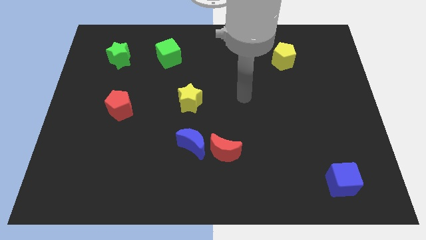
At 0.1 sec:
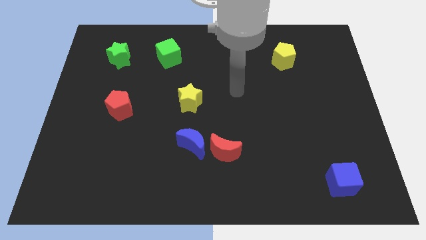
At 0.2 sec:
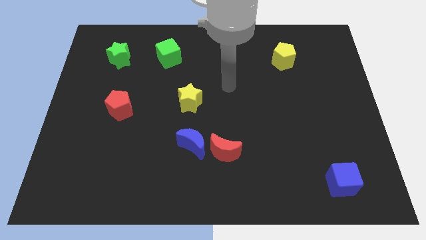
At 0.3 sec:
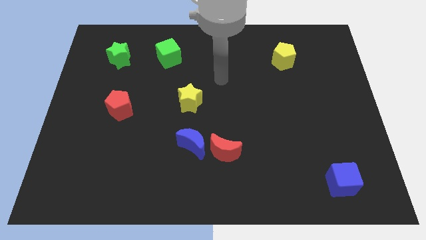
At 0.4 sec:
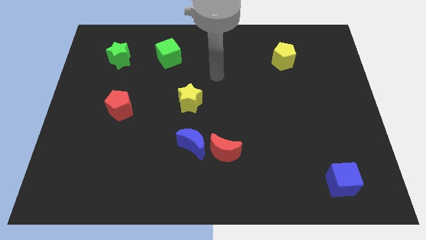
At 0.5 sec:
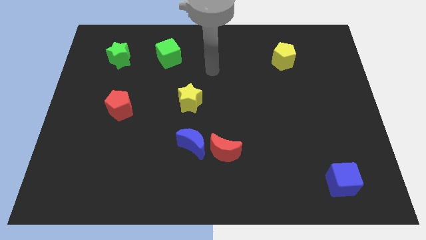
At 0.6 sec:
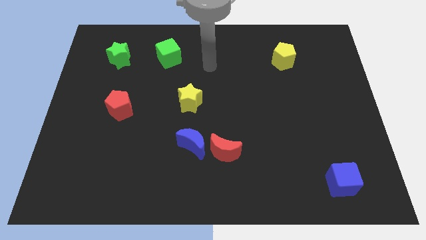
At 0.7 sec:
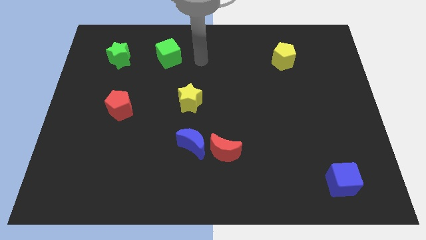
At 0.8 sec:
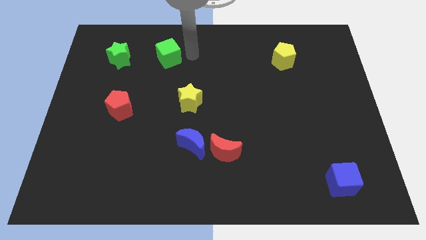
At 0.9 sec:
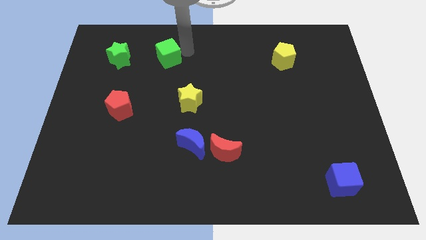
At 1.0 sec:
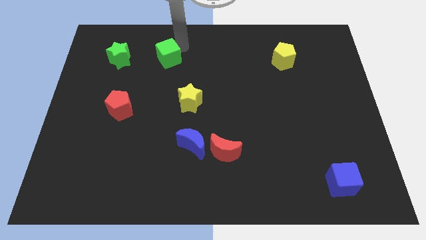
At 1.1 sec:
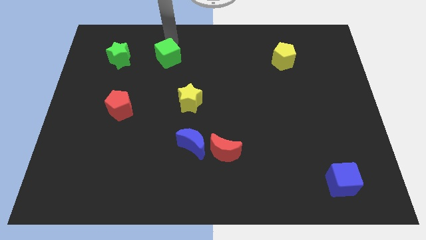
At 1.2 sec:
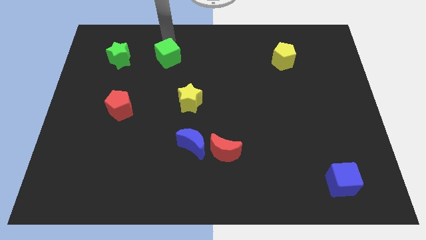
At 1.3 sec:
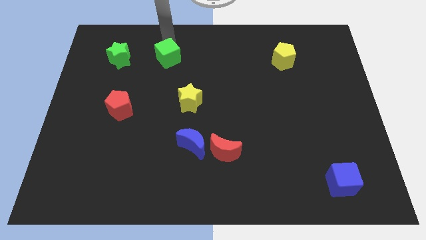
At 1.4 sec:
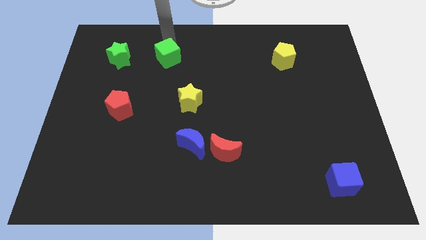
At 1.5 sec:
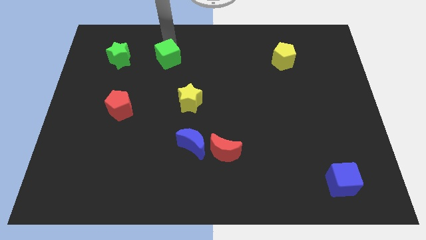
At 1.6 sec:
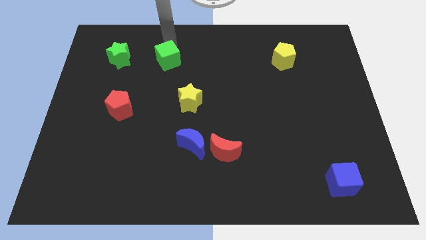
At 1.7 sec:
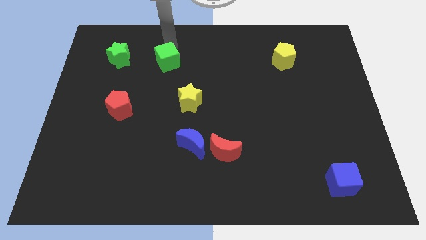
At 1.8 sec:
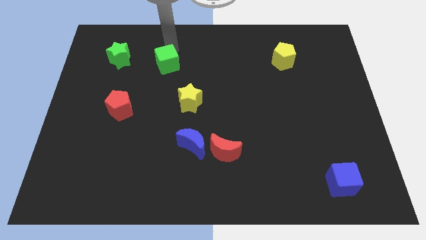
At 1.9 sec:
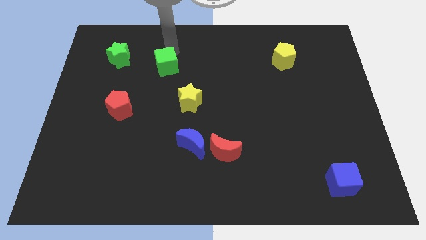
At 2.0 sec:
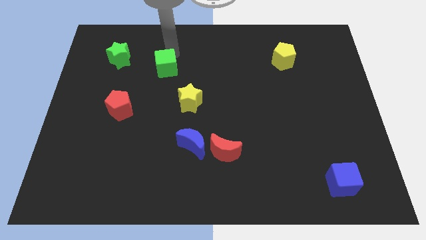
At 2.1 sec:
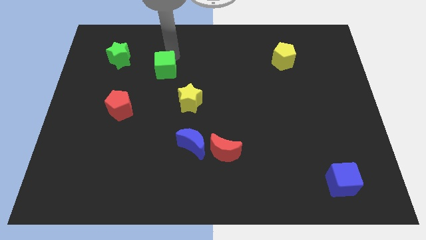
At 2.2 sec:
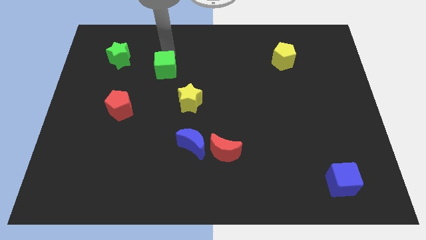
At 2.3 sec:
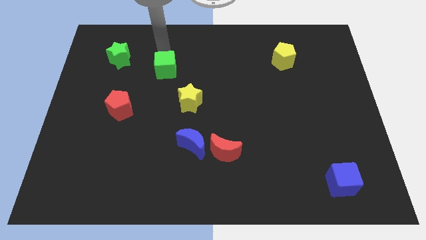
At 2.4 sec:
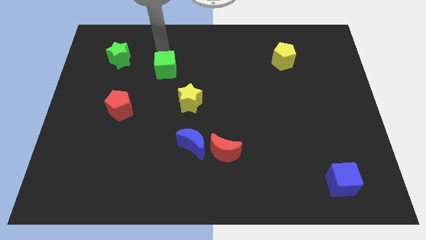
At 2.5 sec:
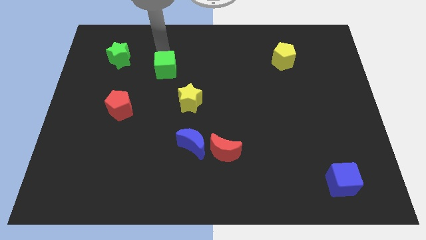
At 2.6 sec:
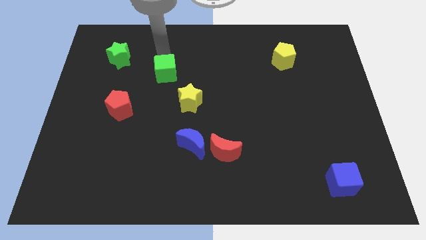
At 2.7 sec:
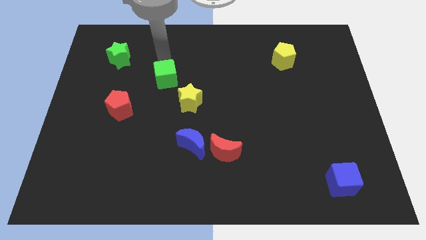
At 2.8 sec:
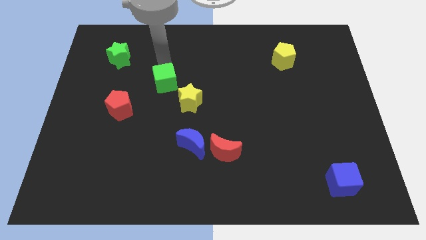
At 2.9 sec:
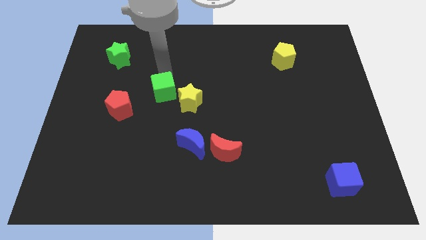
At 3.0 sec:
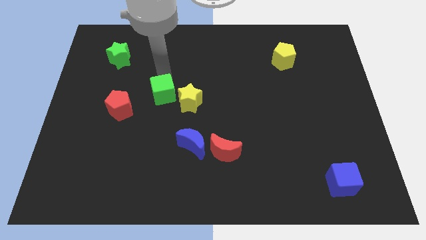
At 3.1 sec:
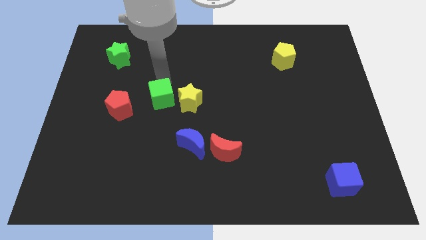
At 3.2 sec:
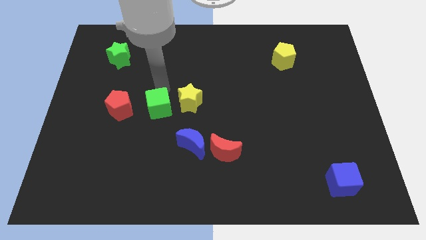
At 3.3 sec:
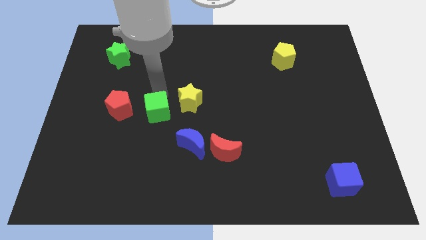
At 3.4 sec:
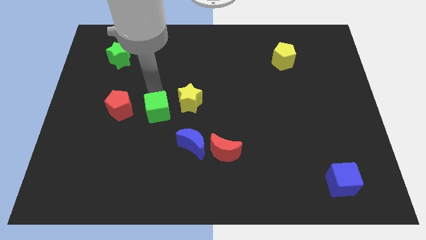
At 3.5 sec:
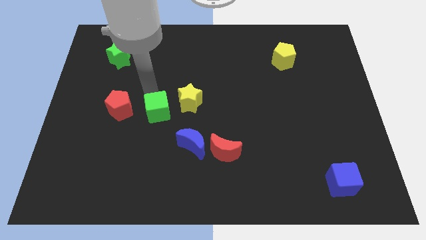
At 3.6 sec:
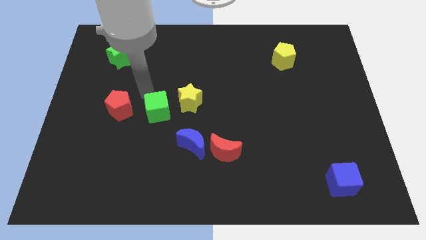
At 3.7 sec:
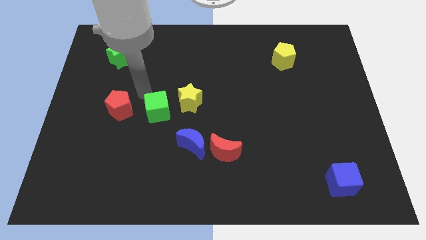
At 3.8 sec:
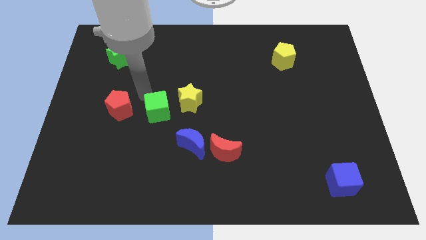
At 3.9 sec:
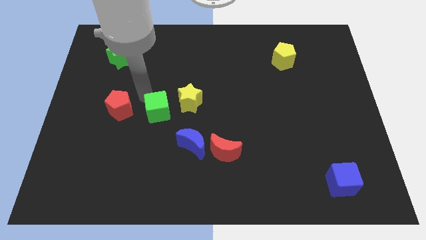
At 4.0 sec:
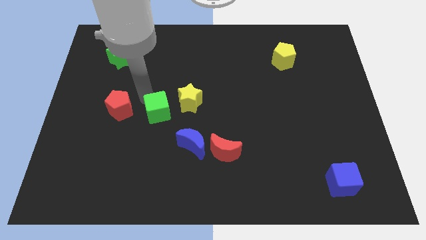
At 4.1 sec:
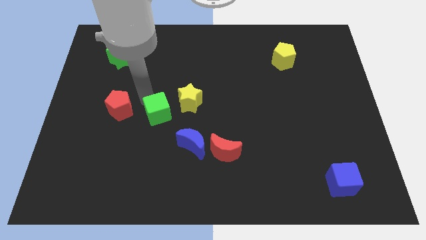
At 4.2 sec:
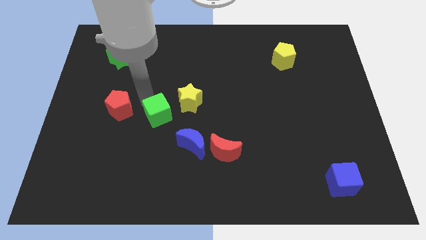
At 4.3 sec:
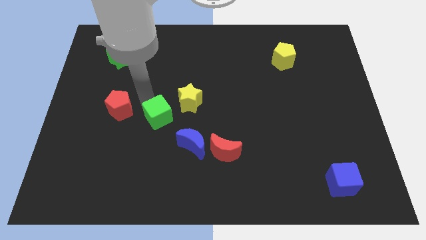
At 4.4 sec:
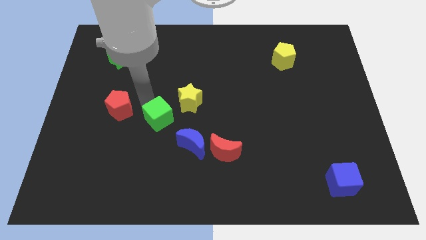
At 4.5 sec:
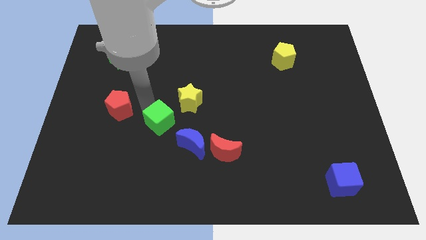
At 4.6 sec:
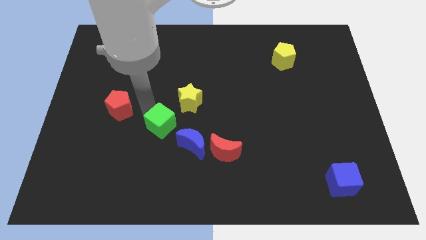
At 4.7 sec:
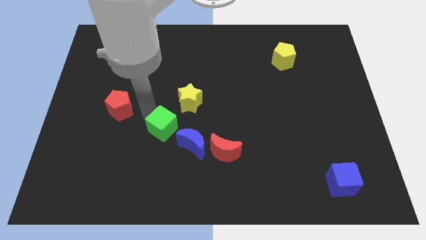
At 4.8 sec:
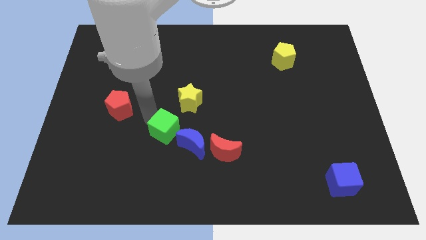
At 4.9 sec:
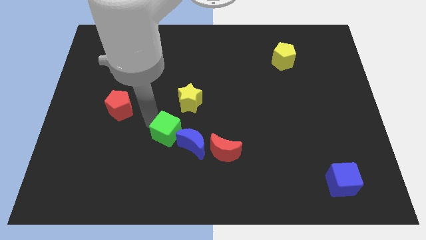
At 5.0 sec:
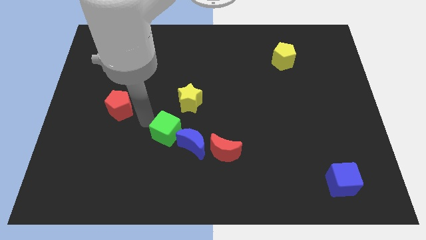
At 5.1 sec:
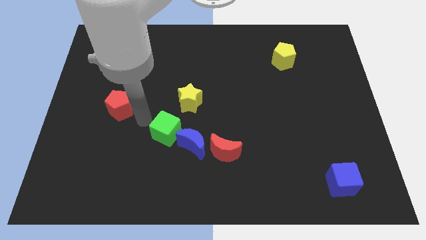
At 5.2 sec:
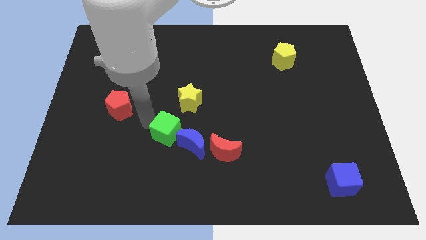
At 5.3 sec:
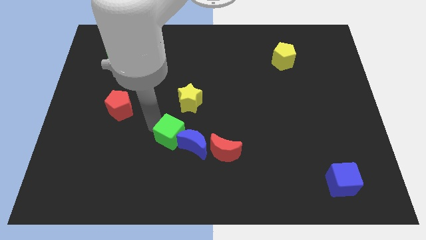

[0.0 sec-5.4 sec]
move the green cube to the blue moon

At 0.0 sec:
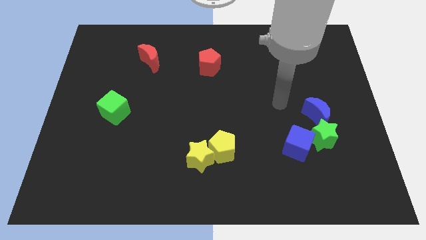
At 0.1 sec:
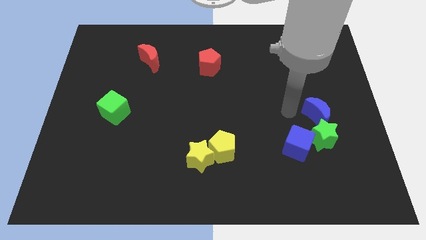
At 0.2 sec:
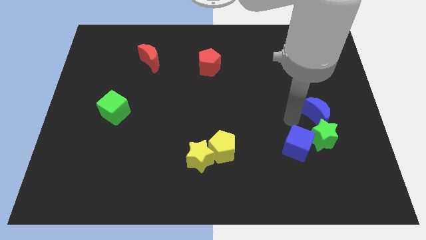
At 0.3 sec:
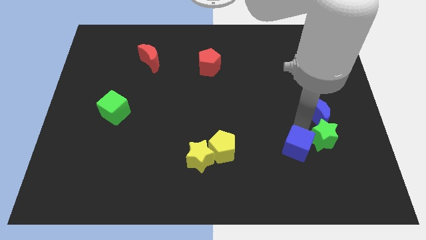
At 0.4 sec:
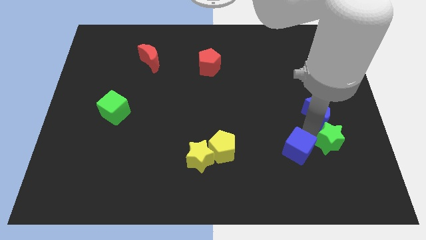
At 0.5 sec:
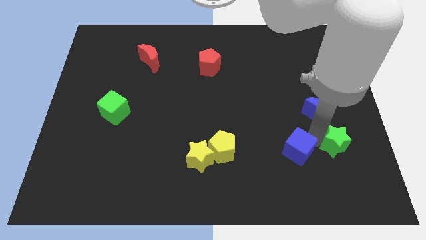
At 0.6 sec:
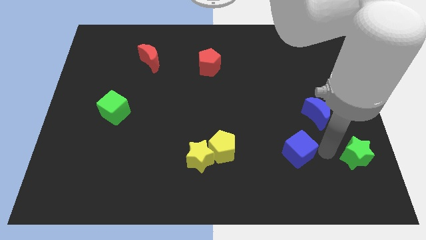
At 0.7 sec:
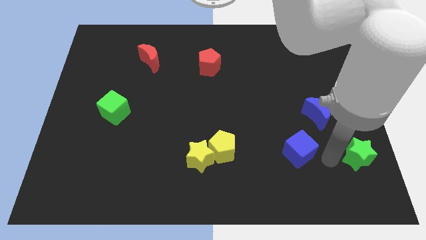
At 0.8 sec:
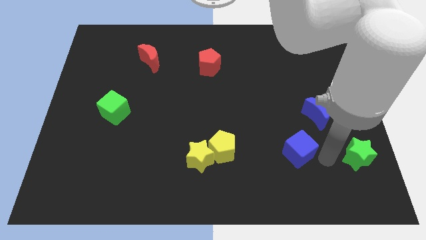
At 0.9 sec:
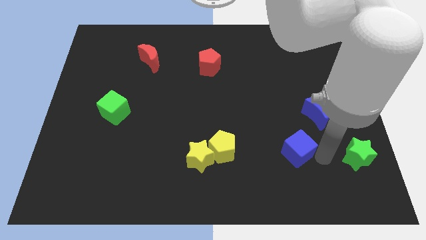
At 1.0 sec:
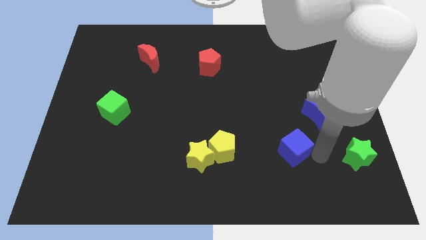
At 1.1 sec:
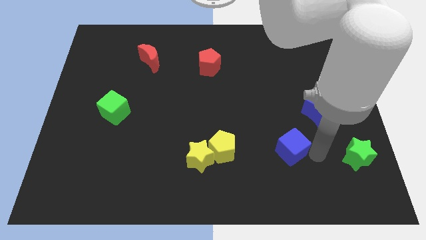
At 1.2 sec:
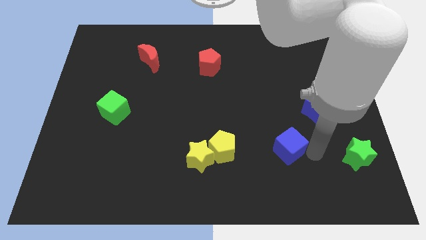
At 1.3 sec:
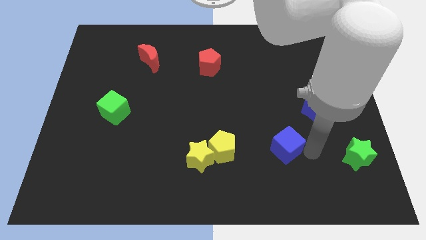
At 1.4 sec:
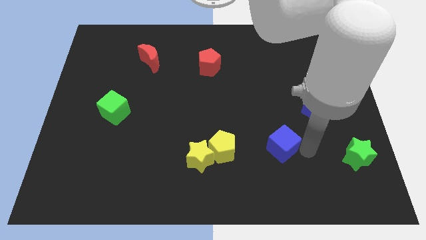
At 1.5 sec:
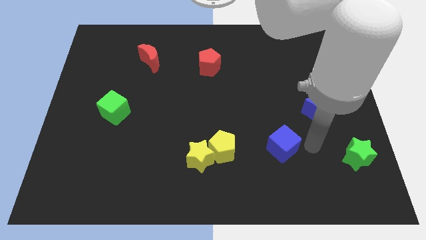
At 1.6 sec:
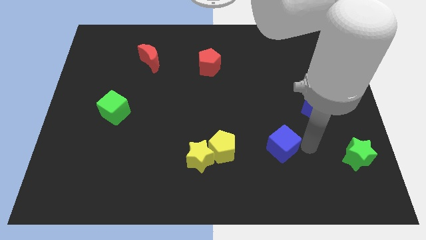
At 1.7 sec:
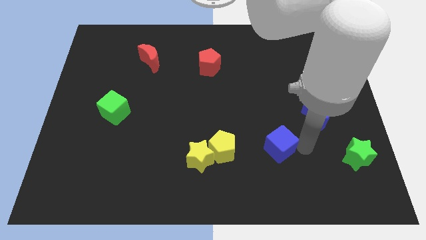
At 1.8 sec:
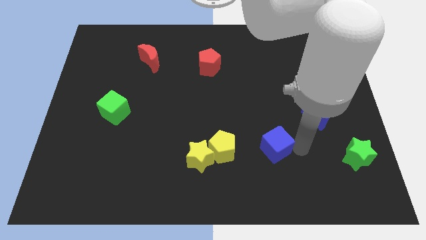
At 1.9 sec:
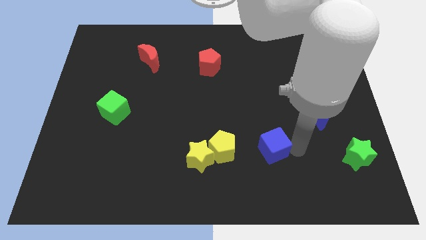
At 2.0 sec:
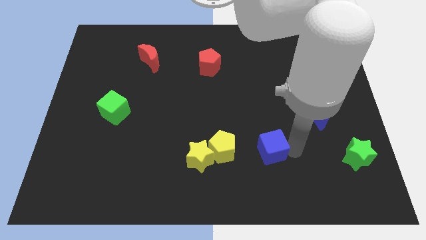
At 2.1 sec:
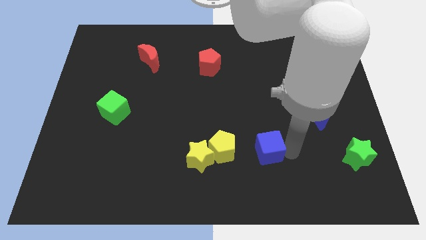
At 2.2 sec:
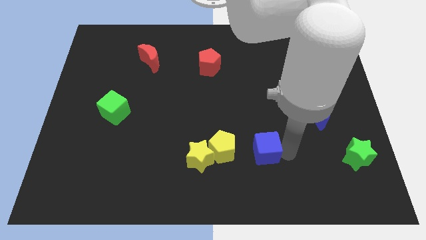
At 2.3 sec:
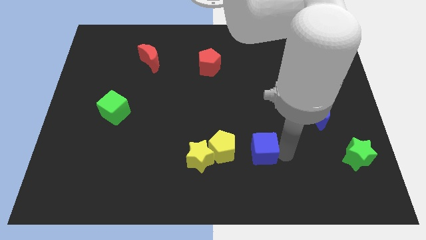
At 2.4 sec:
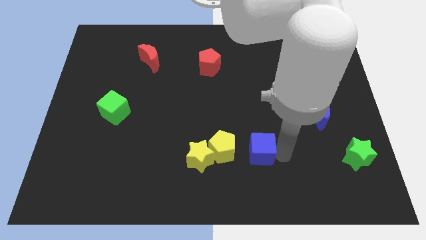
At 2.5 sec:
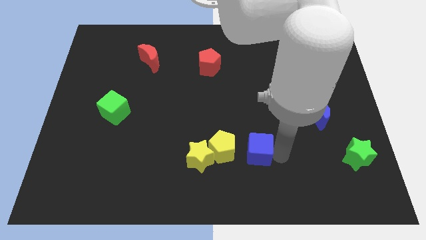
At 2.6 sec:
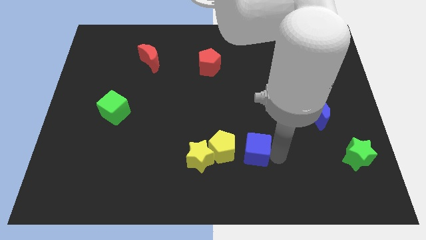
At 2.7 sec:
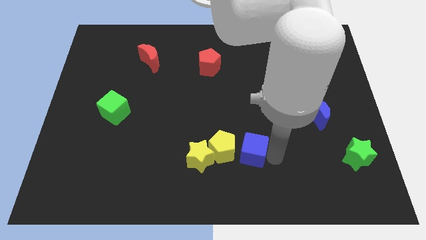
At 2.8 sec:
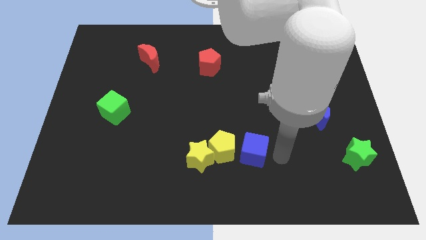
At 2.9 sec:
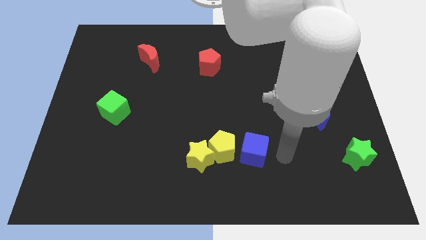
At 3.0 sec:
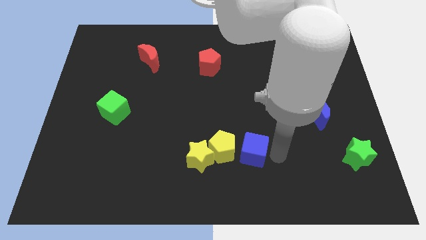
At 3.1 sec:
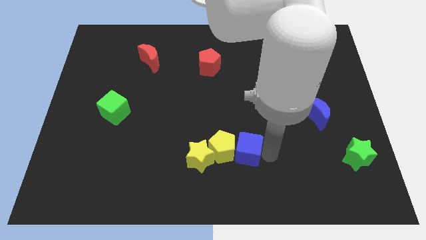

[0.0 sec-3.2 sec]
push the blue cube to the yellow pentagon
